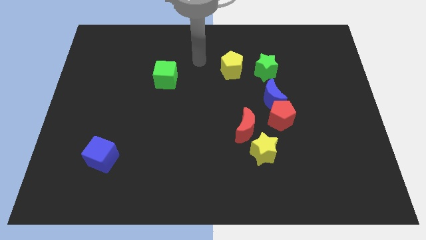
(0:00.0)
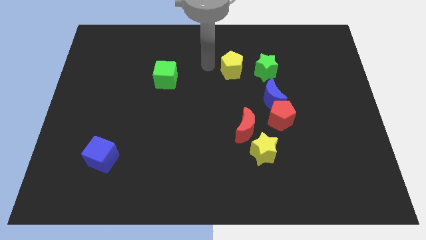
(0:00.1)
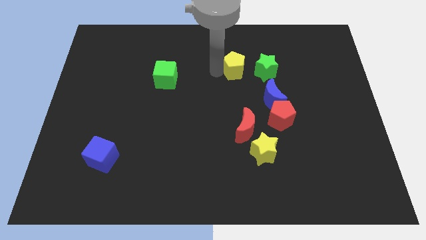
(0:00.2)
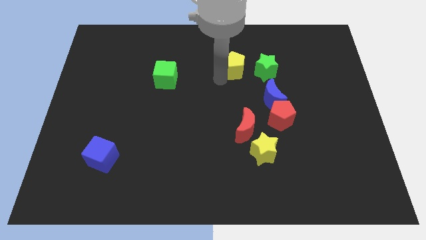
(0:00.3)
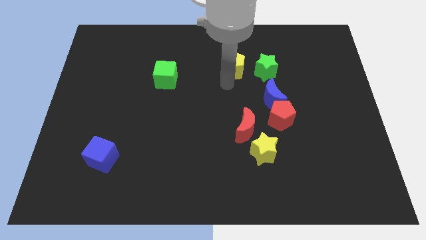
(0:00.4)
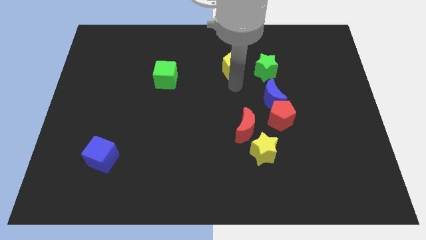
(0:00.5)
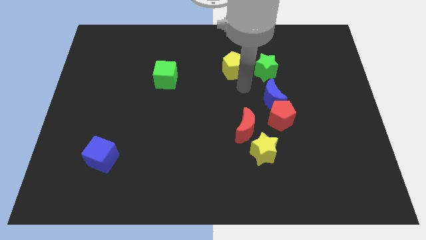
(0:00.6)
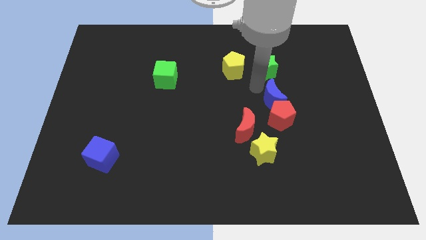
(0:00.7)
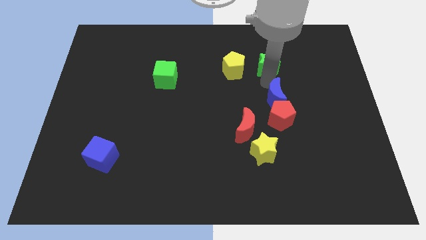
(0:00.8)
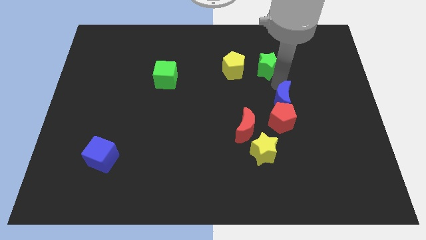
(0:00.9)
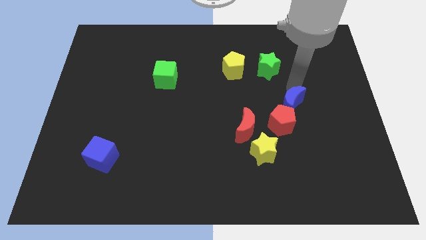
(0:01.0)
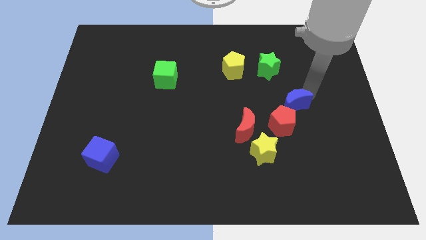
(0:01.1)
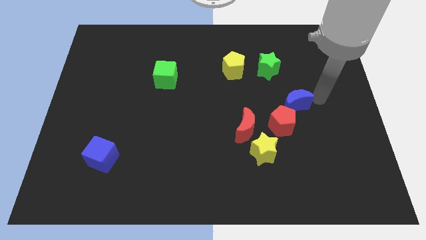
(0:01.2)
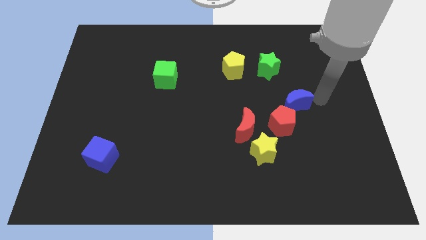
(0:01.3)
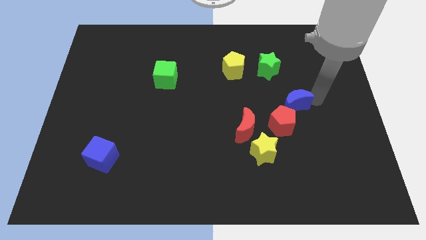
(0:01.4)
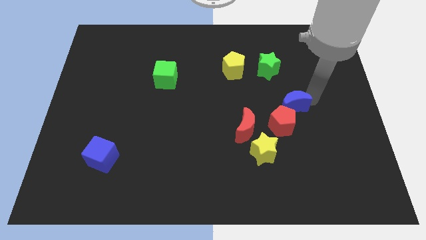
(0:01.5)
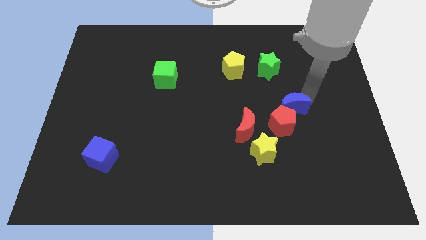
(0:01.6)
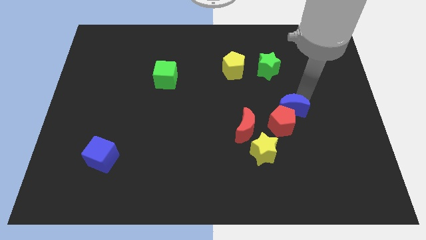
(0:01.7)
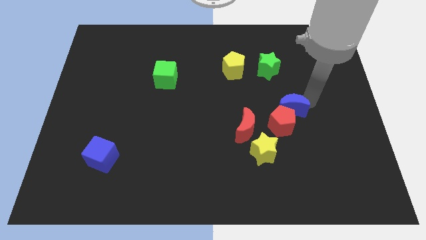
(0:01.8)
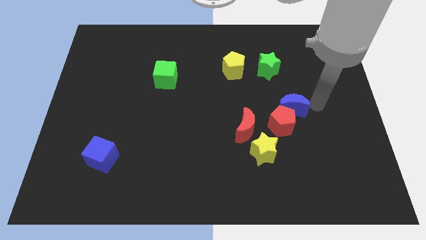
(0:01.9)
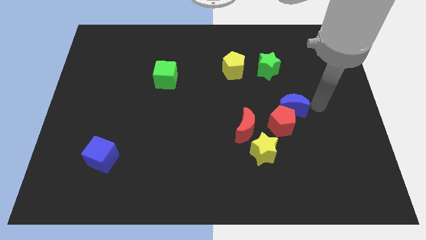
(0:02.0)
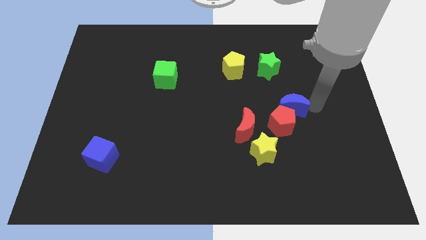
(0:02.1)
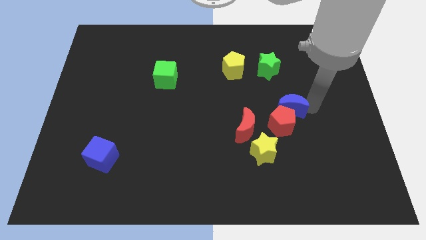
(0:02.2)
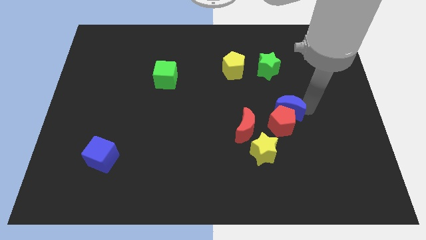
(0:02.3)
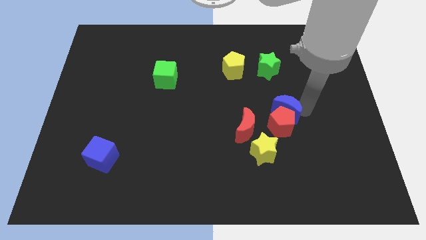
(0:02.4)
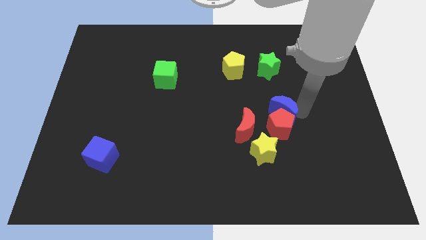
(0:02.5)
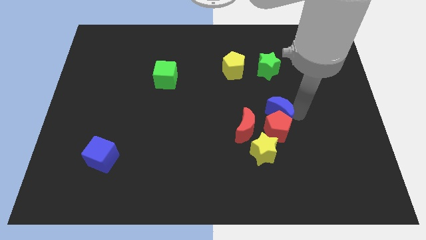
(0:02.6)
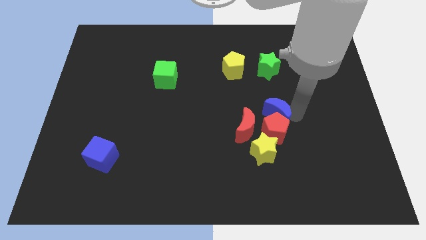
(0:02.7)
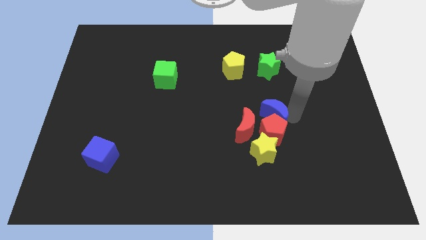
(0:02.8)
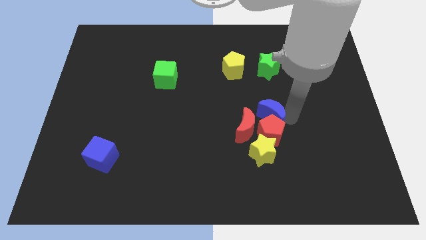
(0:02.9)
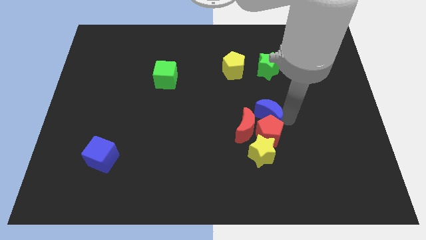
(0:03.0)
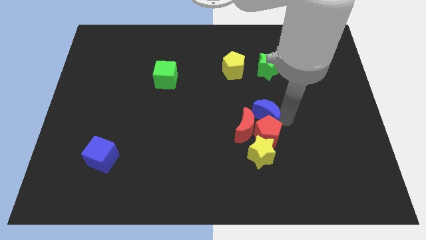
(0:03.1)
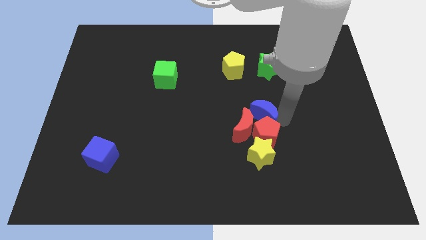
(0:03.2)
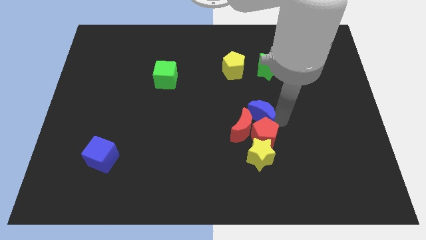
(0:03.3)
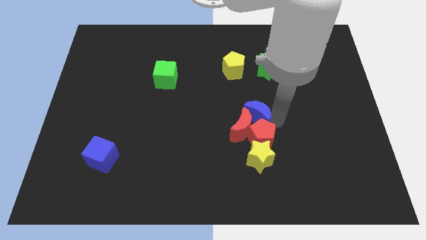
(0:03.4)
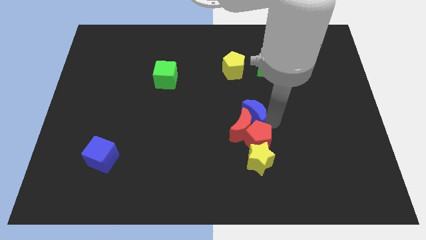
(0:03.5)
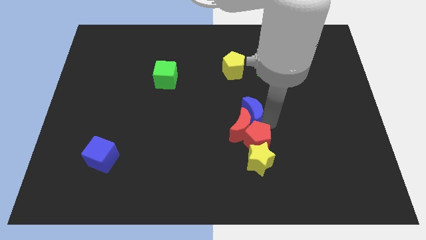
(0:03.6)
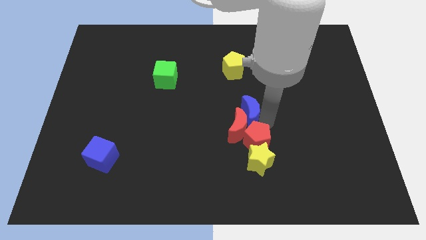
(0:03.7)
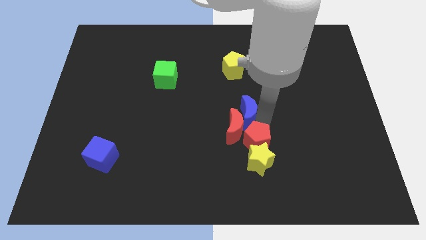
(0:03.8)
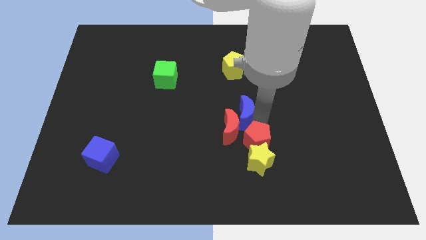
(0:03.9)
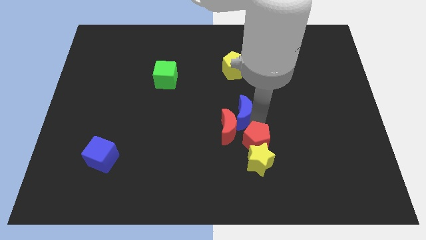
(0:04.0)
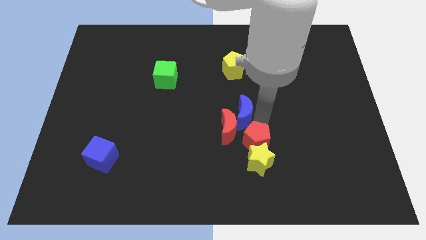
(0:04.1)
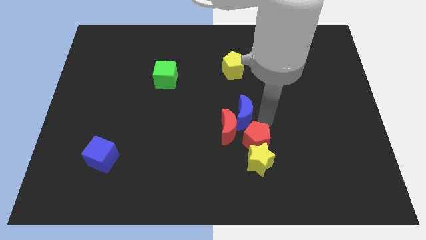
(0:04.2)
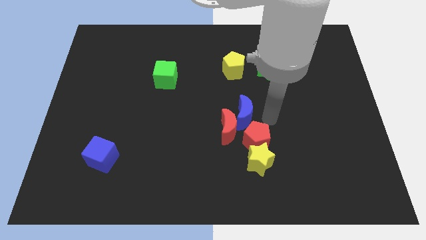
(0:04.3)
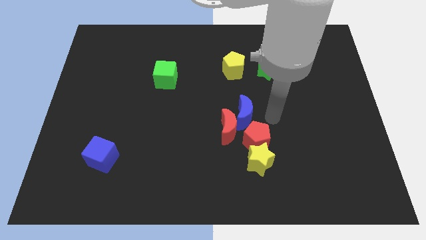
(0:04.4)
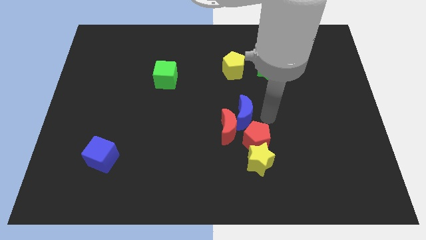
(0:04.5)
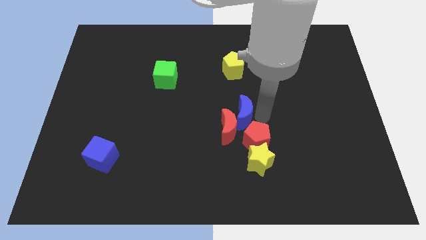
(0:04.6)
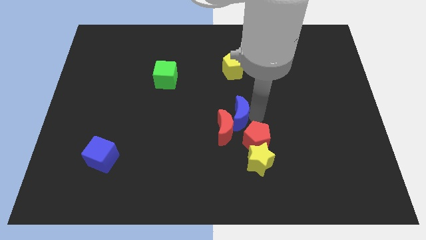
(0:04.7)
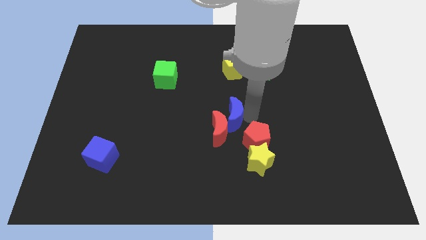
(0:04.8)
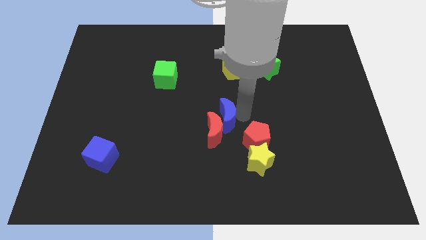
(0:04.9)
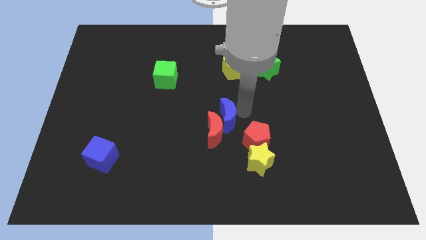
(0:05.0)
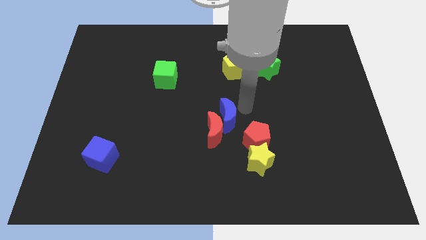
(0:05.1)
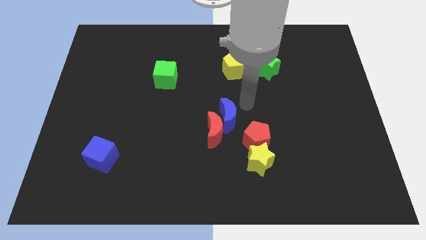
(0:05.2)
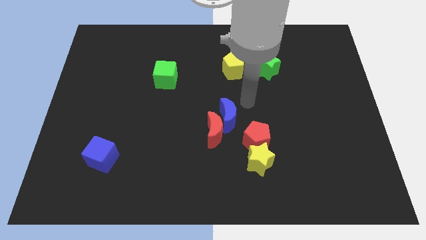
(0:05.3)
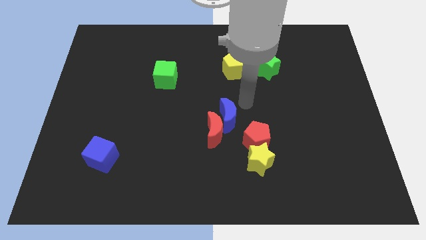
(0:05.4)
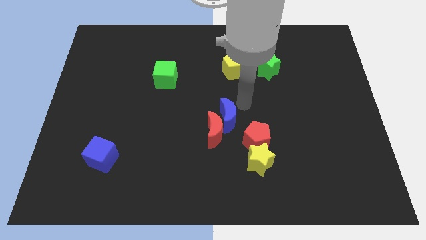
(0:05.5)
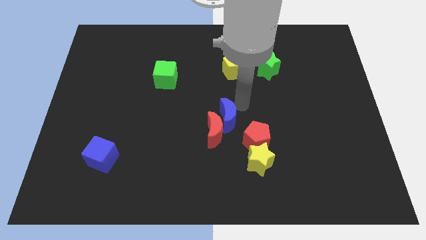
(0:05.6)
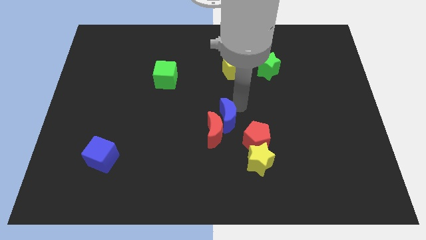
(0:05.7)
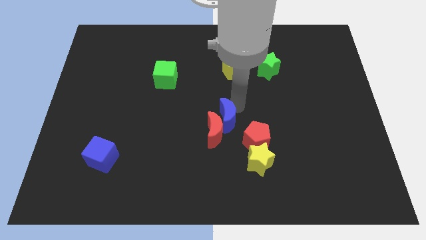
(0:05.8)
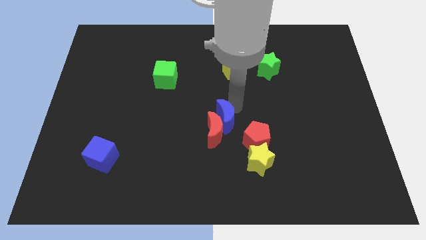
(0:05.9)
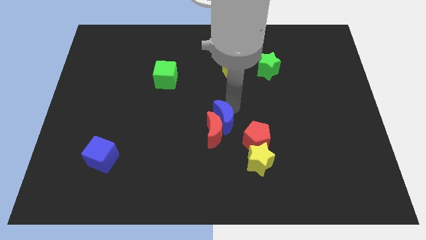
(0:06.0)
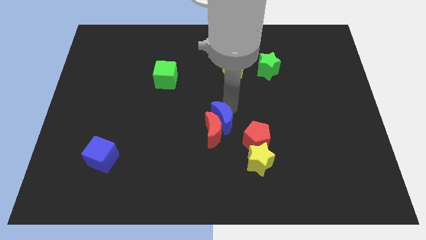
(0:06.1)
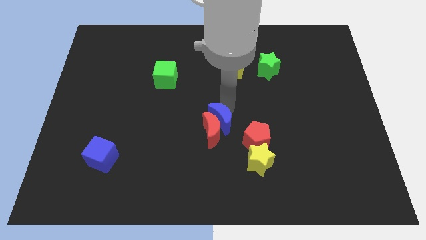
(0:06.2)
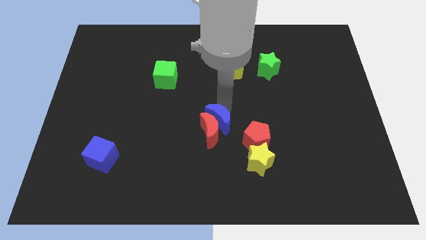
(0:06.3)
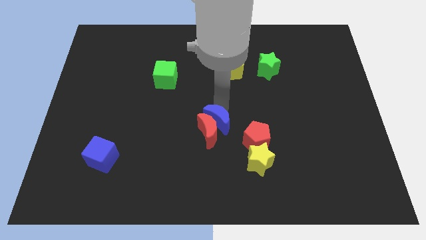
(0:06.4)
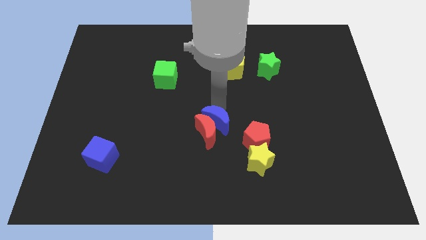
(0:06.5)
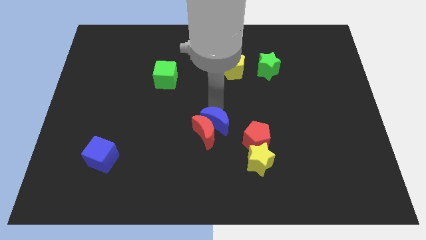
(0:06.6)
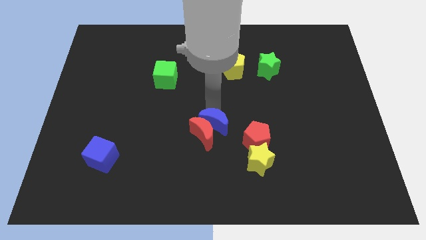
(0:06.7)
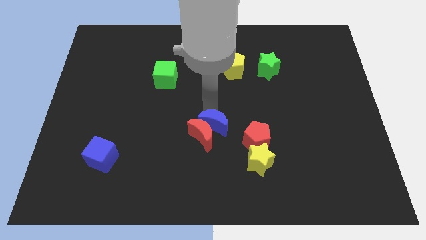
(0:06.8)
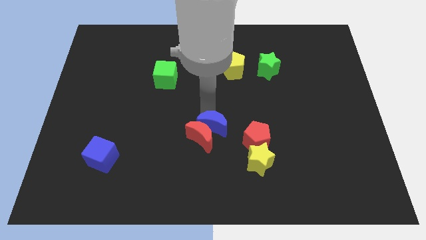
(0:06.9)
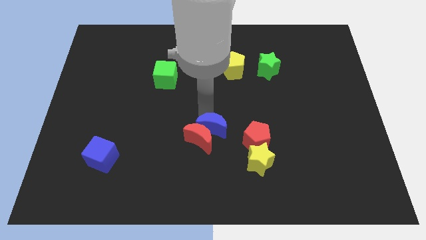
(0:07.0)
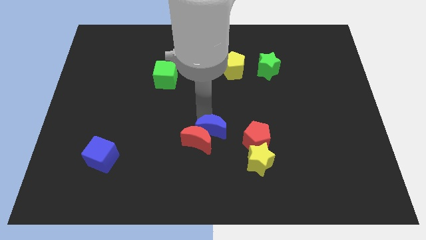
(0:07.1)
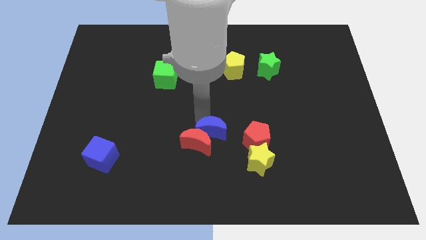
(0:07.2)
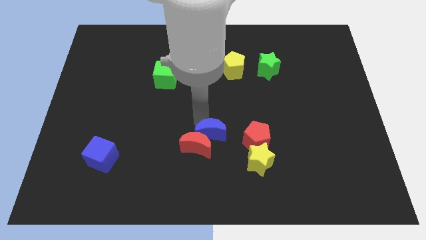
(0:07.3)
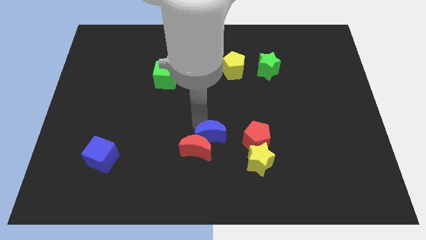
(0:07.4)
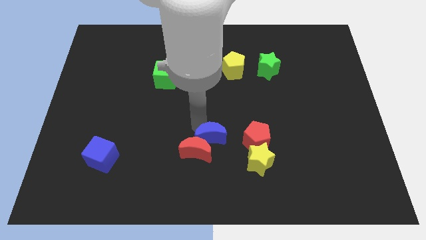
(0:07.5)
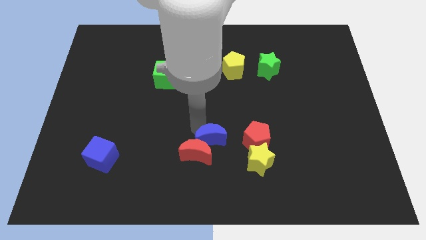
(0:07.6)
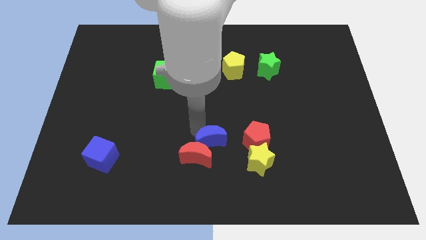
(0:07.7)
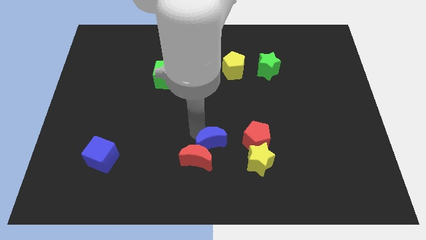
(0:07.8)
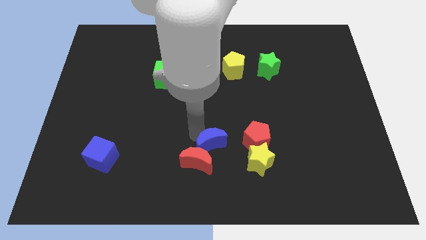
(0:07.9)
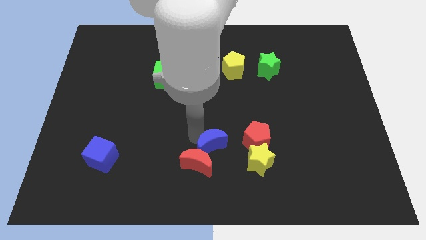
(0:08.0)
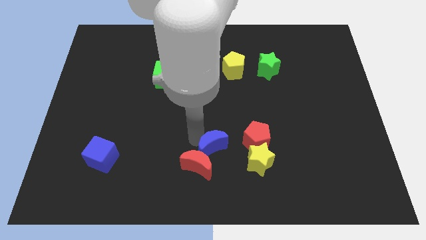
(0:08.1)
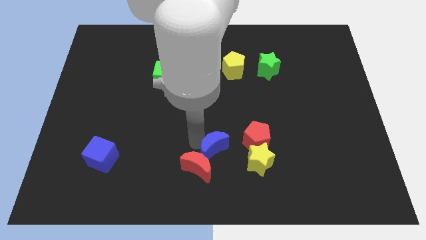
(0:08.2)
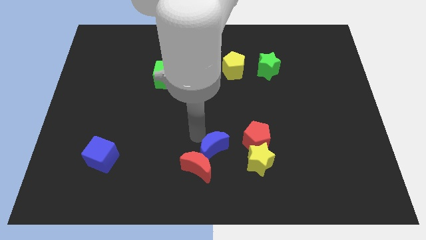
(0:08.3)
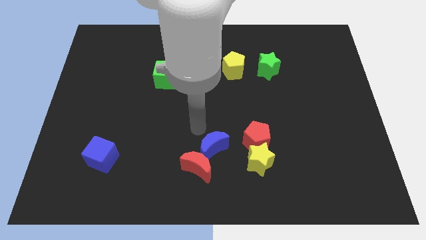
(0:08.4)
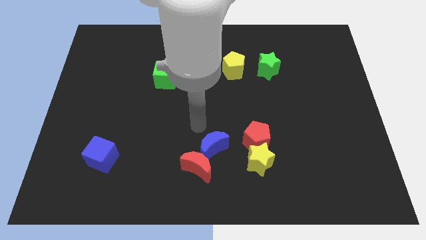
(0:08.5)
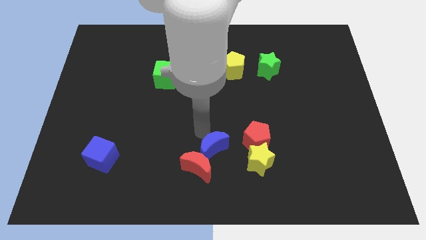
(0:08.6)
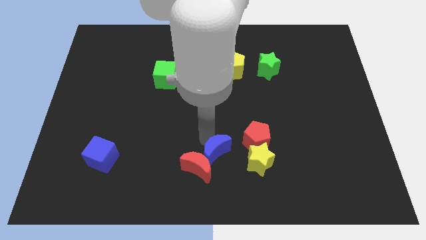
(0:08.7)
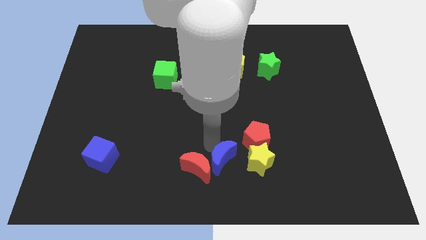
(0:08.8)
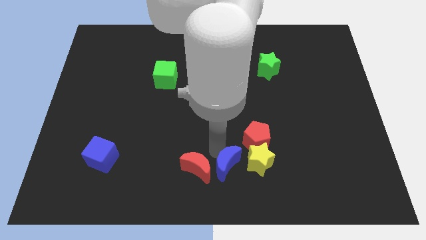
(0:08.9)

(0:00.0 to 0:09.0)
put the blue moon diagonally down and to the left of the yellow star
